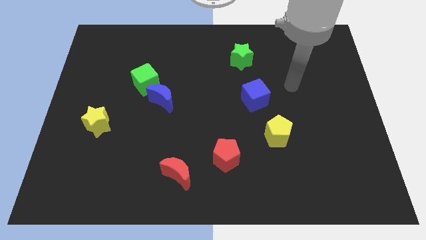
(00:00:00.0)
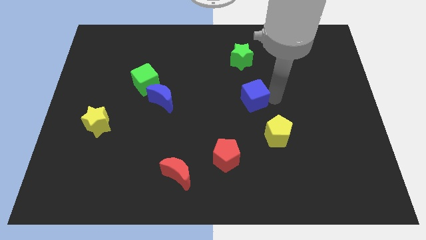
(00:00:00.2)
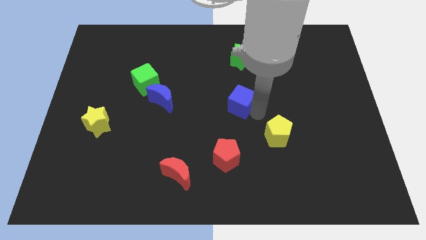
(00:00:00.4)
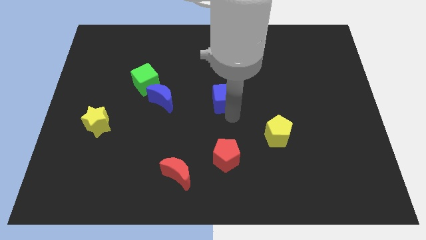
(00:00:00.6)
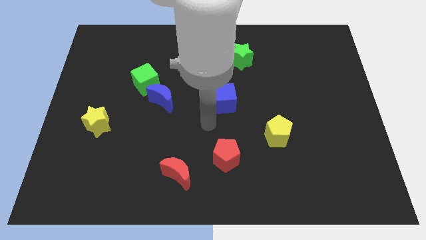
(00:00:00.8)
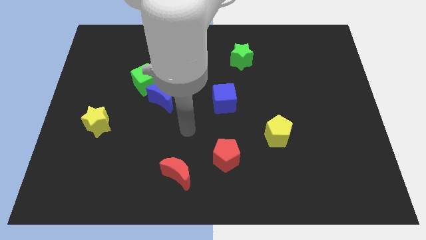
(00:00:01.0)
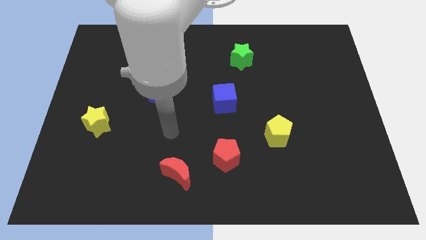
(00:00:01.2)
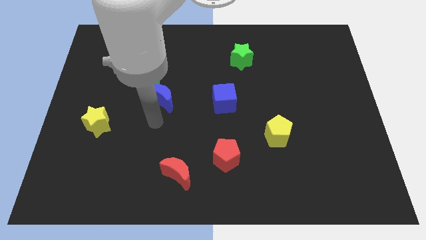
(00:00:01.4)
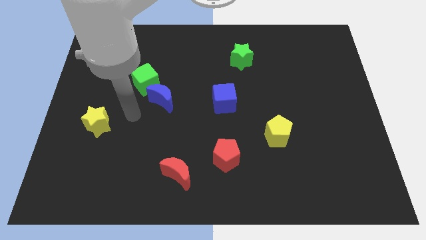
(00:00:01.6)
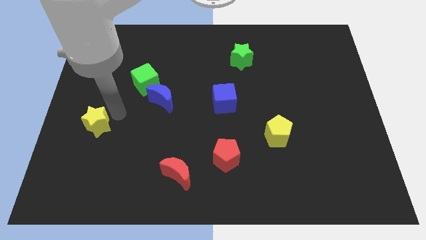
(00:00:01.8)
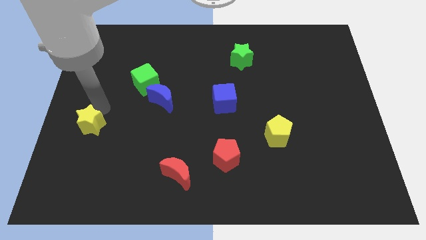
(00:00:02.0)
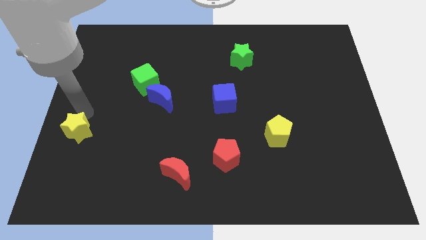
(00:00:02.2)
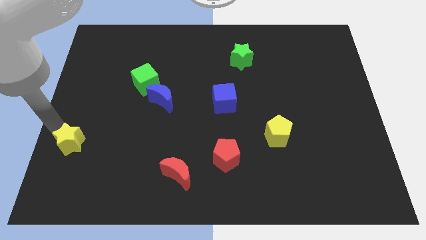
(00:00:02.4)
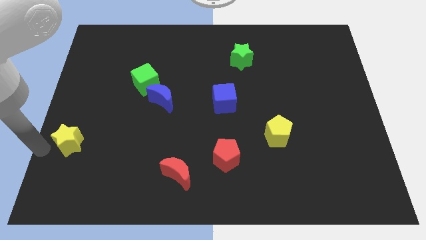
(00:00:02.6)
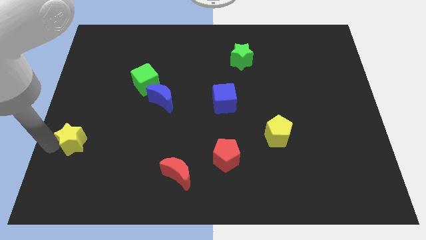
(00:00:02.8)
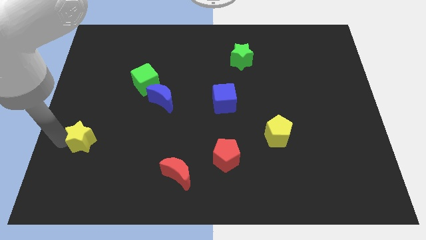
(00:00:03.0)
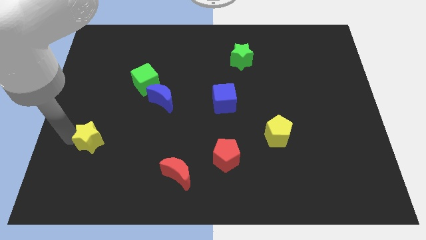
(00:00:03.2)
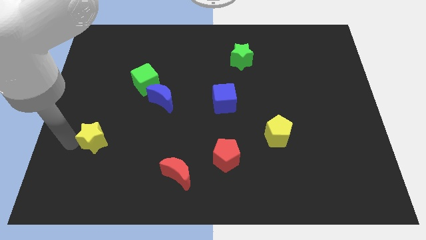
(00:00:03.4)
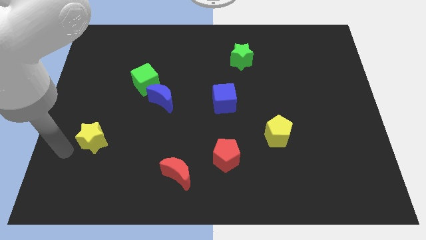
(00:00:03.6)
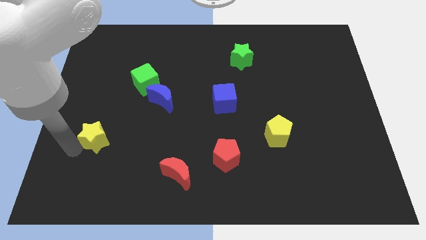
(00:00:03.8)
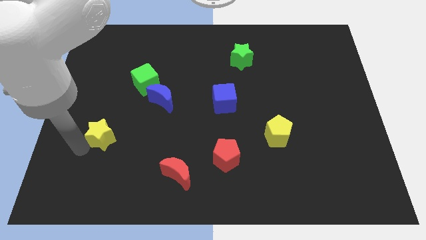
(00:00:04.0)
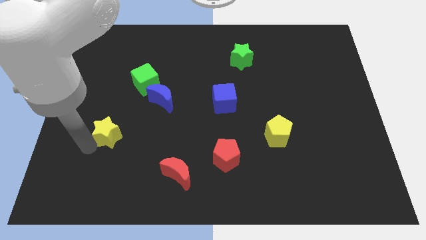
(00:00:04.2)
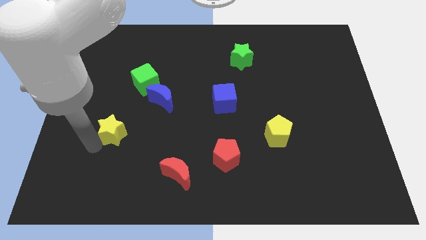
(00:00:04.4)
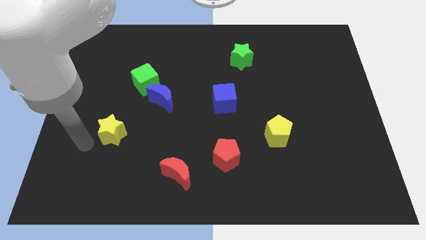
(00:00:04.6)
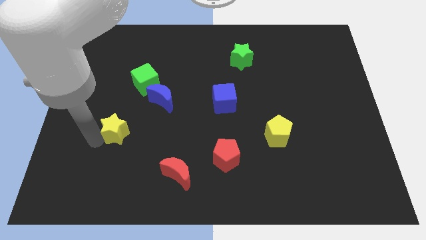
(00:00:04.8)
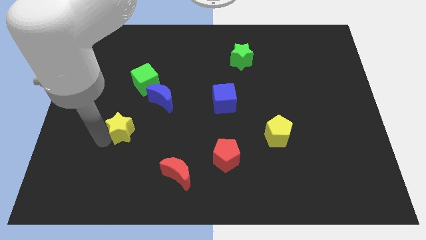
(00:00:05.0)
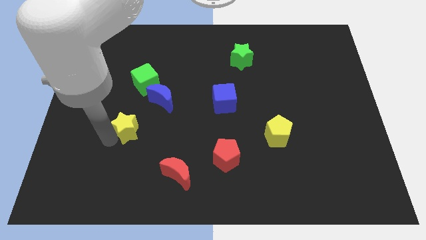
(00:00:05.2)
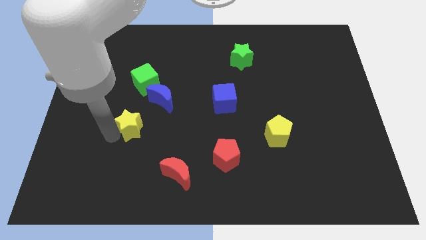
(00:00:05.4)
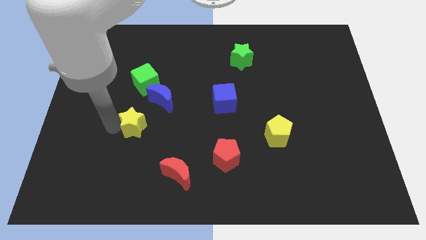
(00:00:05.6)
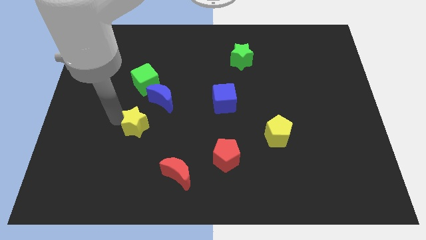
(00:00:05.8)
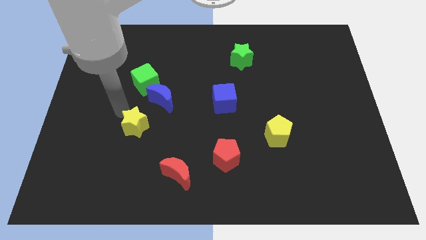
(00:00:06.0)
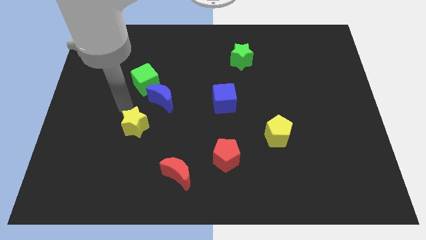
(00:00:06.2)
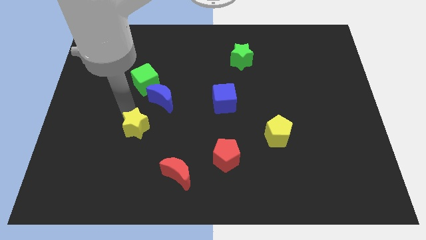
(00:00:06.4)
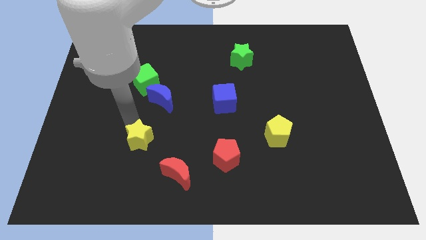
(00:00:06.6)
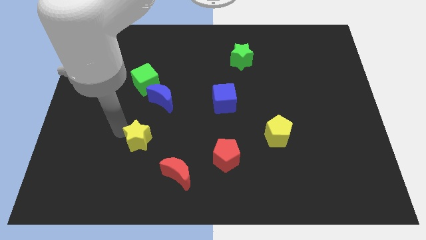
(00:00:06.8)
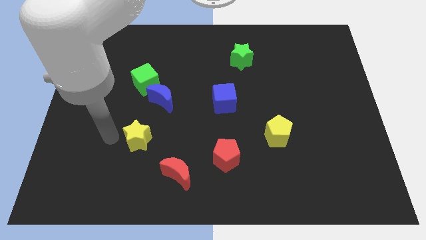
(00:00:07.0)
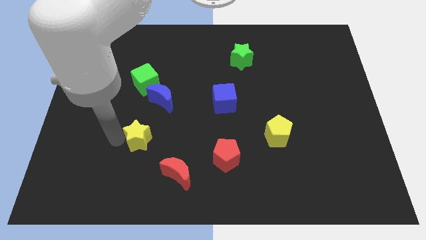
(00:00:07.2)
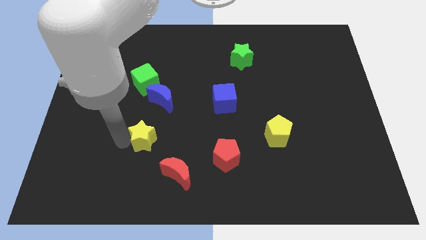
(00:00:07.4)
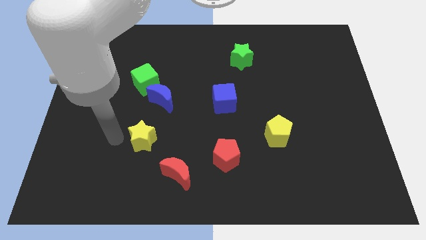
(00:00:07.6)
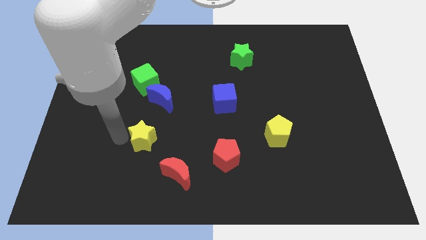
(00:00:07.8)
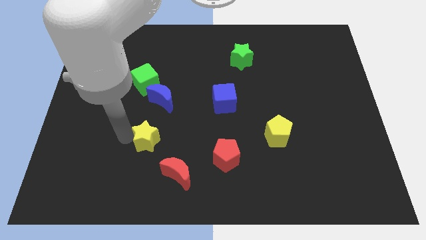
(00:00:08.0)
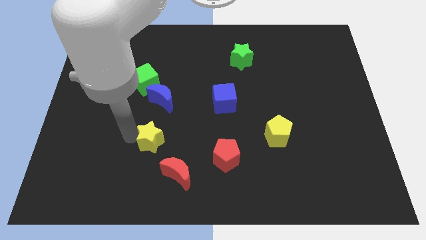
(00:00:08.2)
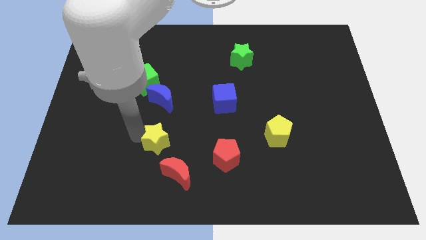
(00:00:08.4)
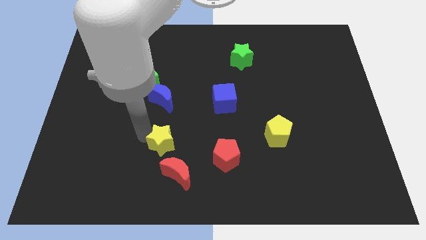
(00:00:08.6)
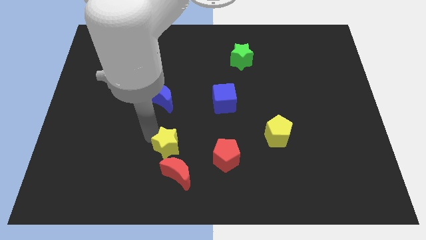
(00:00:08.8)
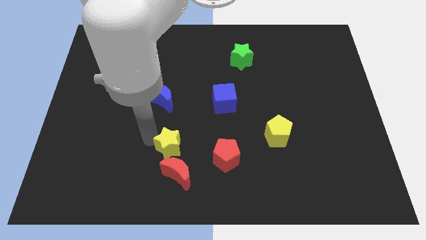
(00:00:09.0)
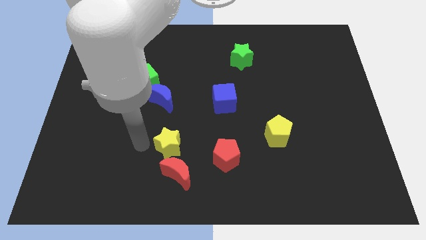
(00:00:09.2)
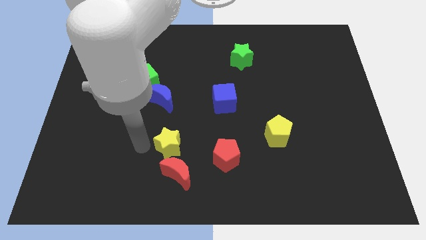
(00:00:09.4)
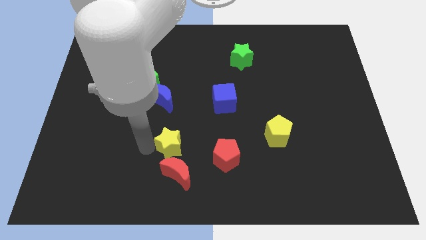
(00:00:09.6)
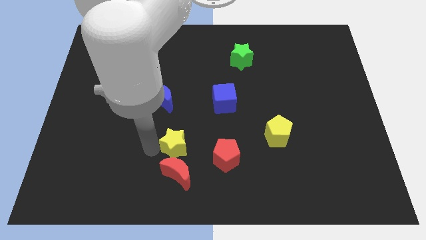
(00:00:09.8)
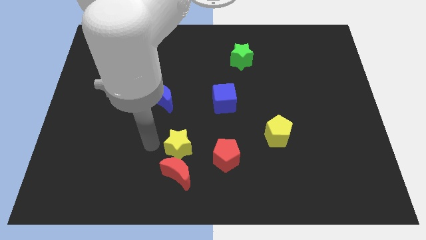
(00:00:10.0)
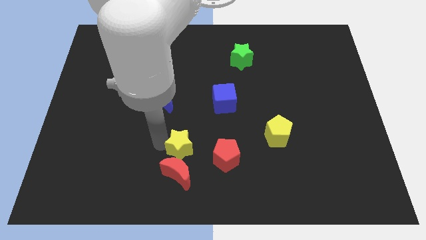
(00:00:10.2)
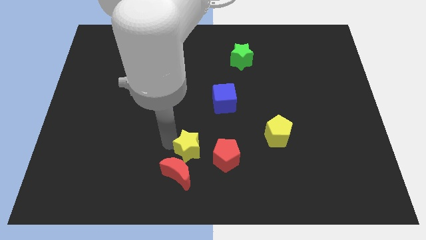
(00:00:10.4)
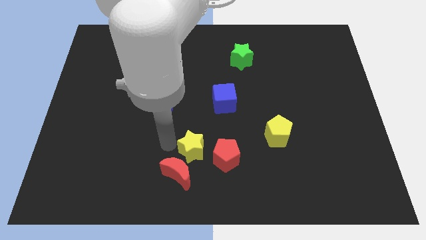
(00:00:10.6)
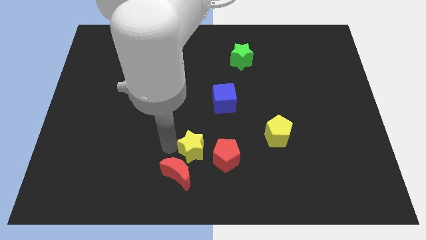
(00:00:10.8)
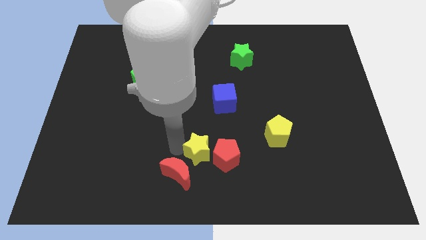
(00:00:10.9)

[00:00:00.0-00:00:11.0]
put the yellow star close to the red pentagon

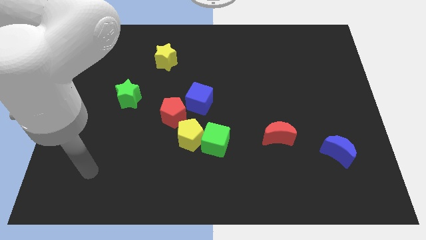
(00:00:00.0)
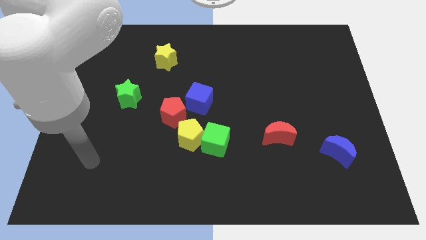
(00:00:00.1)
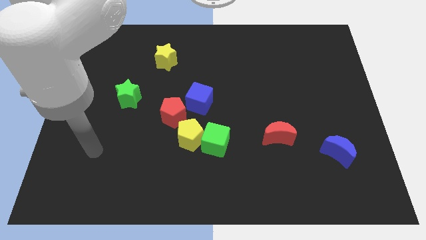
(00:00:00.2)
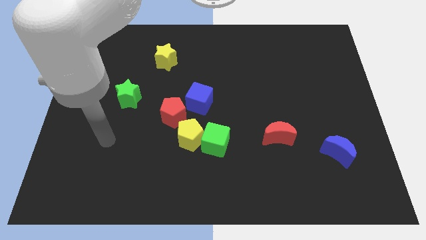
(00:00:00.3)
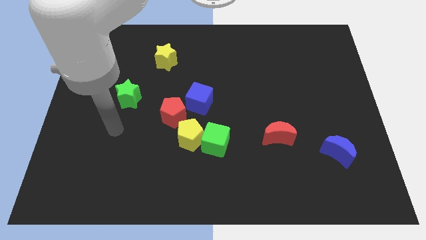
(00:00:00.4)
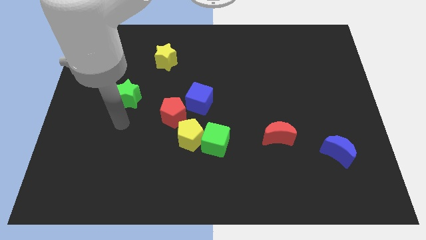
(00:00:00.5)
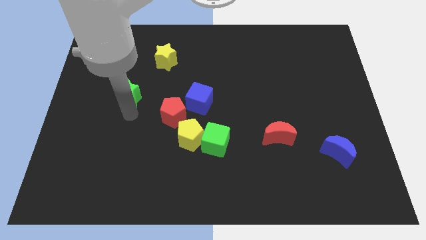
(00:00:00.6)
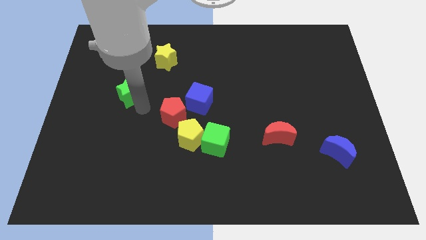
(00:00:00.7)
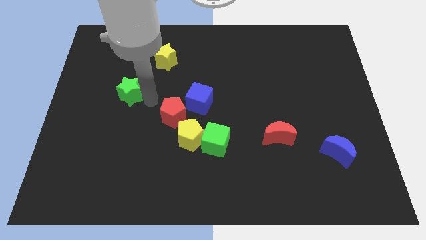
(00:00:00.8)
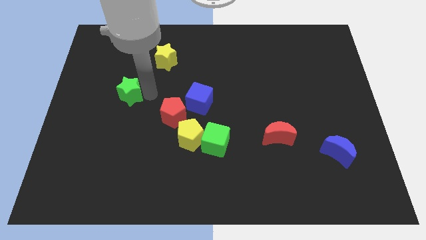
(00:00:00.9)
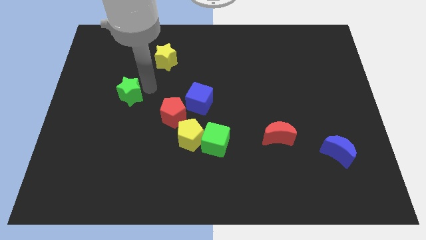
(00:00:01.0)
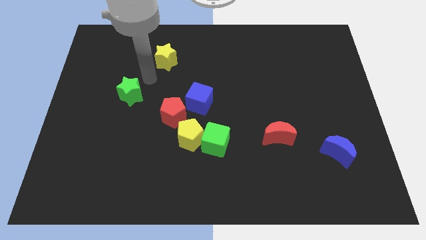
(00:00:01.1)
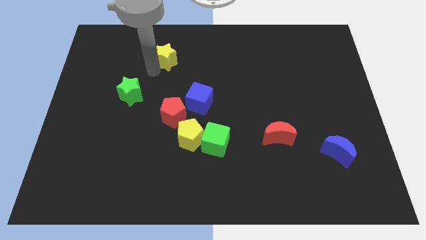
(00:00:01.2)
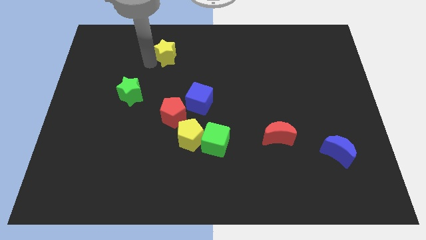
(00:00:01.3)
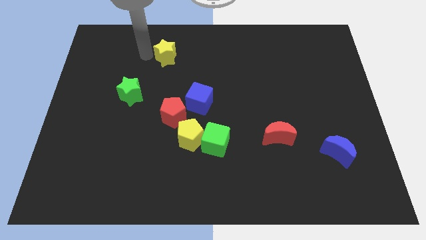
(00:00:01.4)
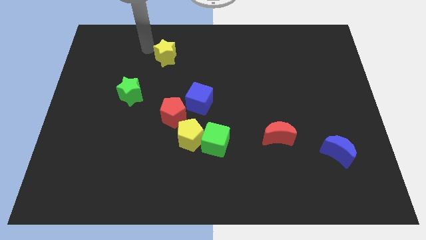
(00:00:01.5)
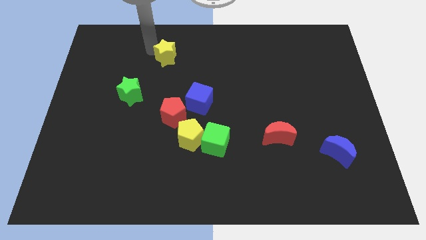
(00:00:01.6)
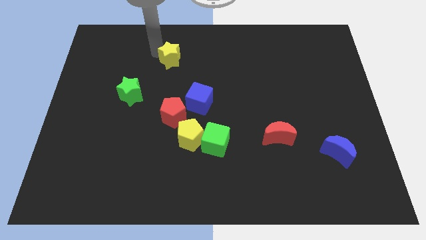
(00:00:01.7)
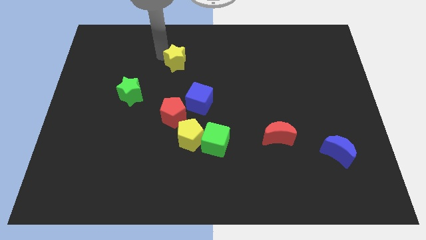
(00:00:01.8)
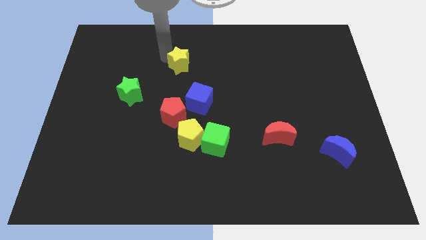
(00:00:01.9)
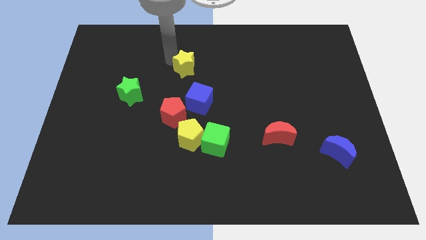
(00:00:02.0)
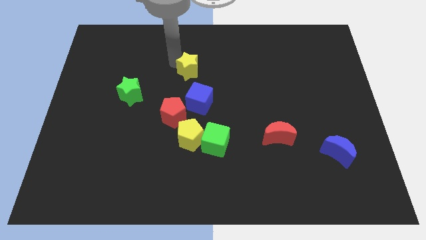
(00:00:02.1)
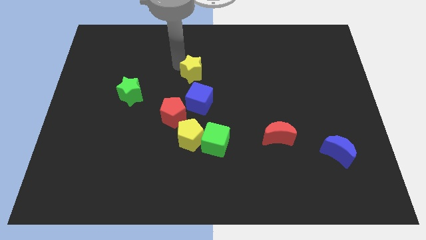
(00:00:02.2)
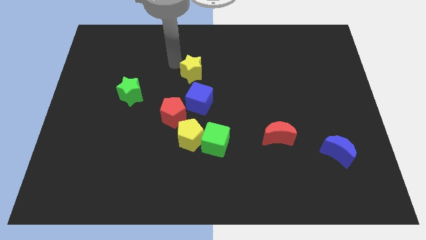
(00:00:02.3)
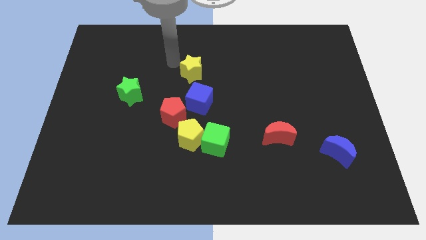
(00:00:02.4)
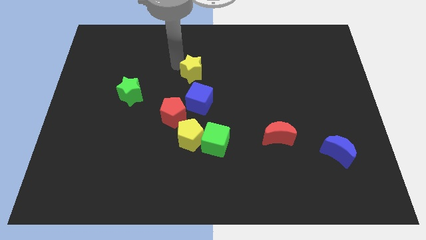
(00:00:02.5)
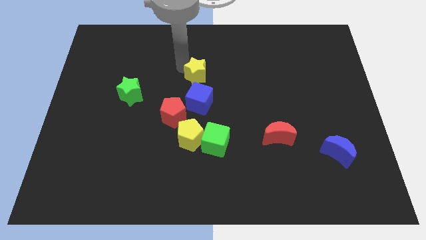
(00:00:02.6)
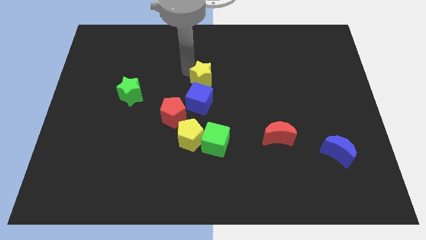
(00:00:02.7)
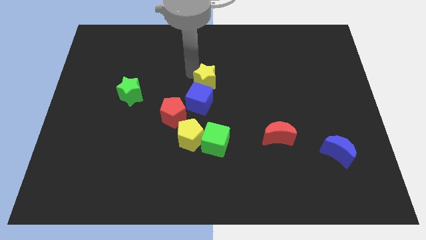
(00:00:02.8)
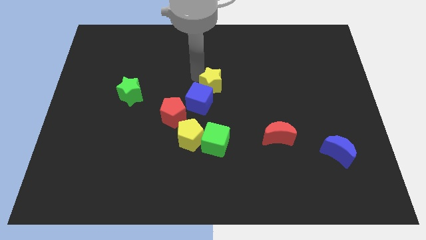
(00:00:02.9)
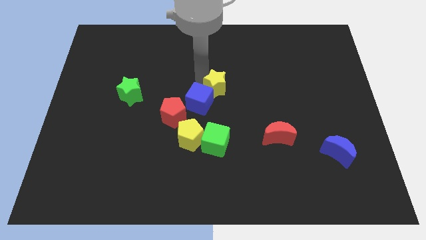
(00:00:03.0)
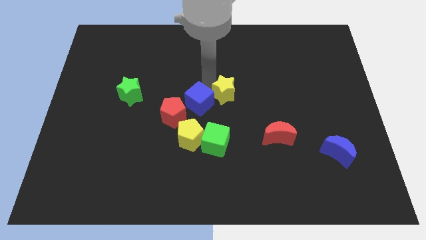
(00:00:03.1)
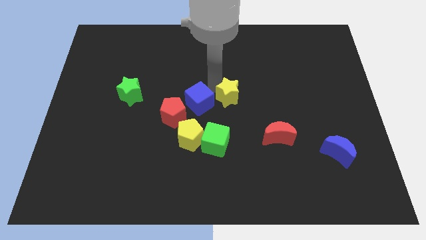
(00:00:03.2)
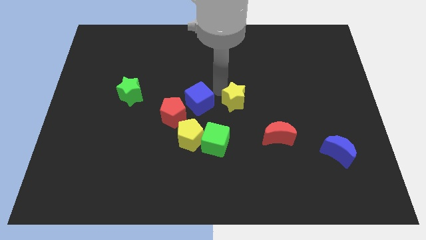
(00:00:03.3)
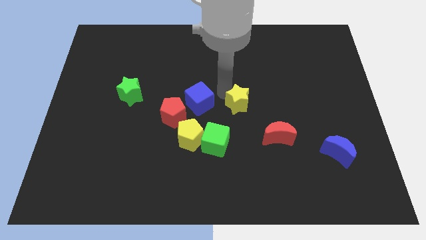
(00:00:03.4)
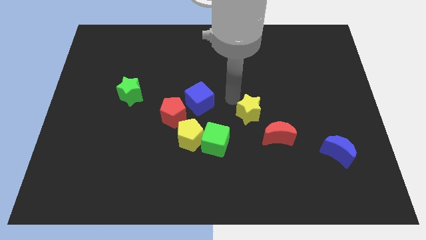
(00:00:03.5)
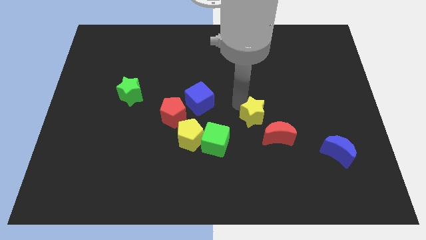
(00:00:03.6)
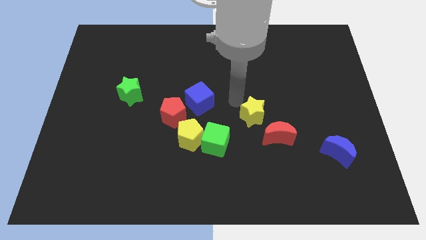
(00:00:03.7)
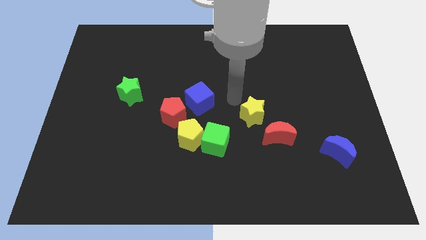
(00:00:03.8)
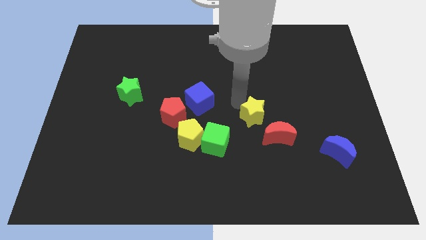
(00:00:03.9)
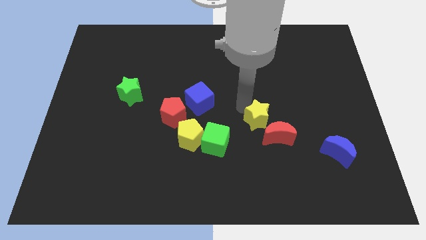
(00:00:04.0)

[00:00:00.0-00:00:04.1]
put the yellow star to the red moon
